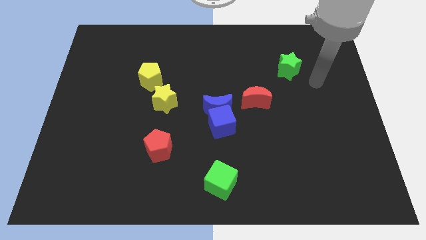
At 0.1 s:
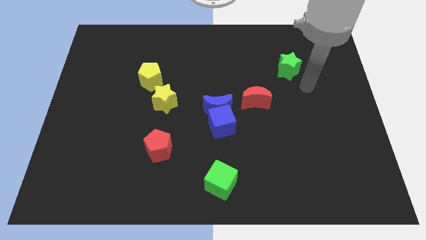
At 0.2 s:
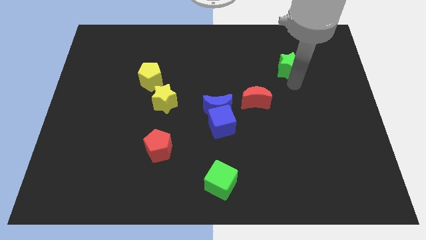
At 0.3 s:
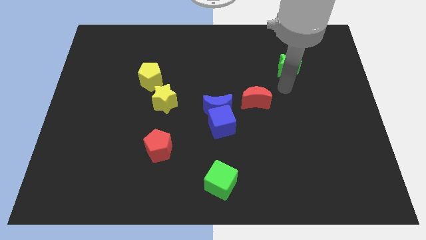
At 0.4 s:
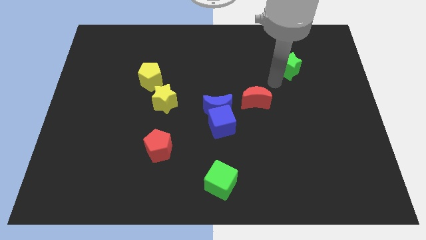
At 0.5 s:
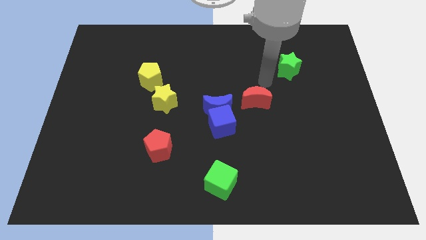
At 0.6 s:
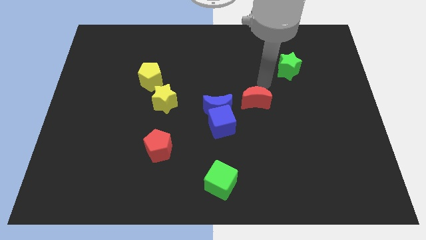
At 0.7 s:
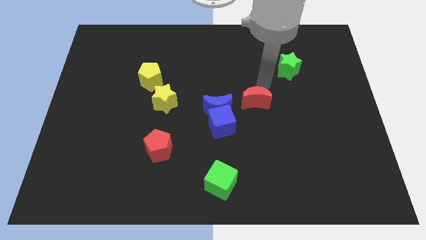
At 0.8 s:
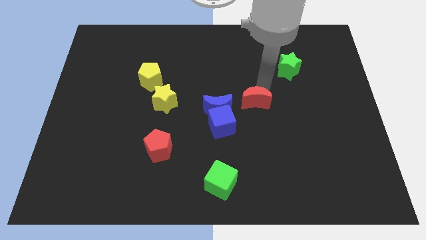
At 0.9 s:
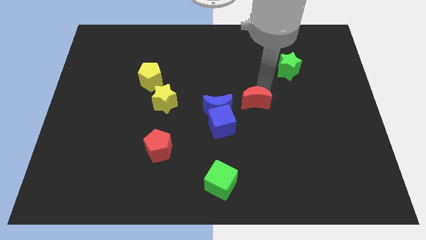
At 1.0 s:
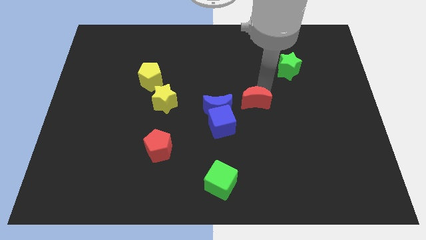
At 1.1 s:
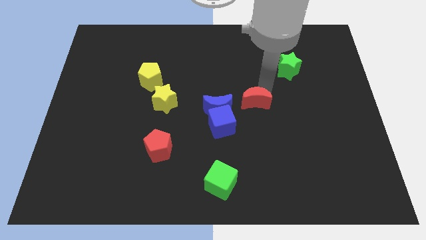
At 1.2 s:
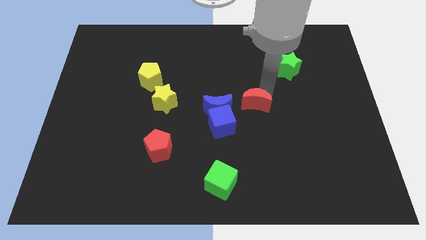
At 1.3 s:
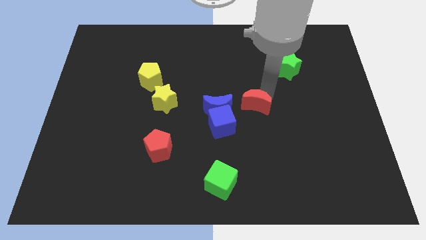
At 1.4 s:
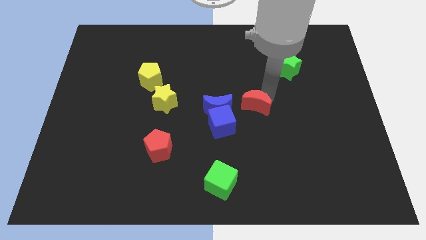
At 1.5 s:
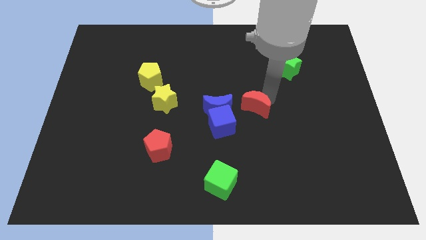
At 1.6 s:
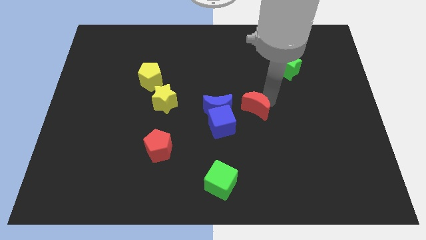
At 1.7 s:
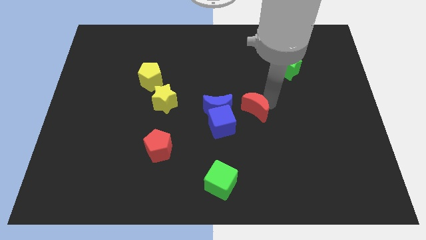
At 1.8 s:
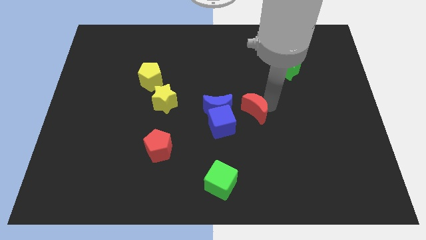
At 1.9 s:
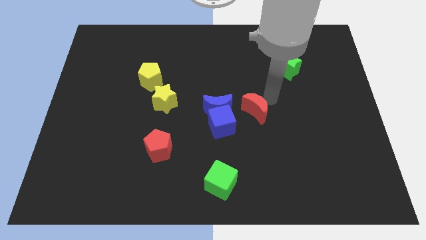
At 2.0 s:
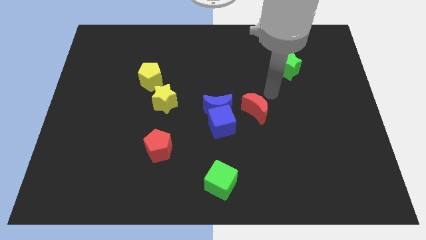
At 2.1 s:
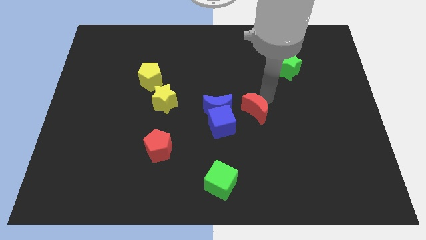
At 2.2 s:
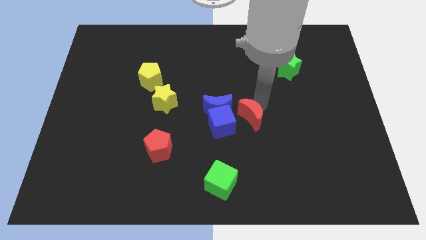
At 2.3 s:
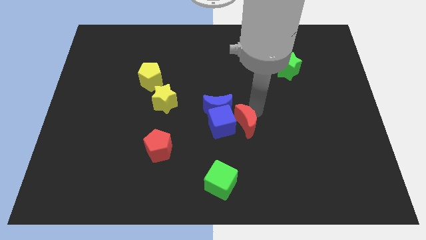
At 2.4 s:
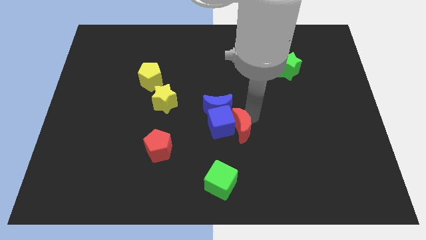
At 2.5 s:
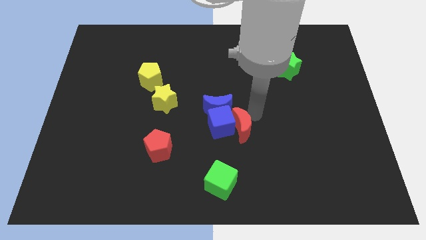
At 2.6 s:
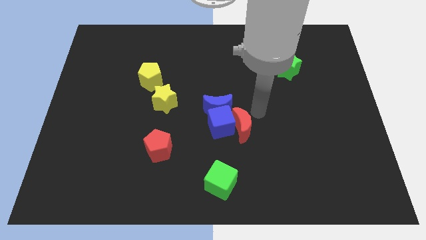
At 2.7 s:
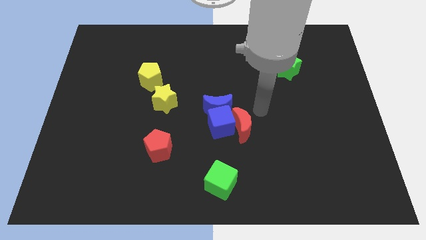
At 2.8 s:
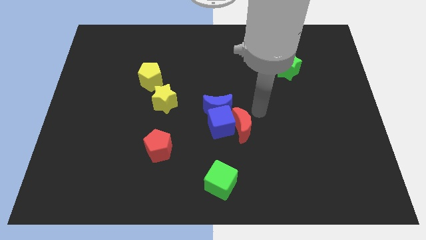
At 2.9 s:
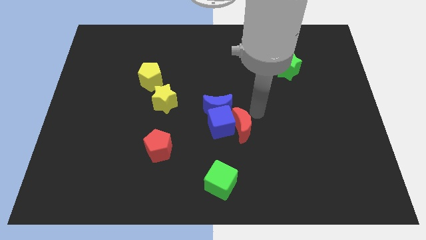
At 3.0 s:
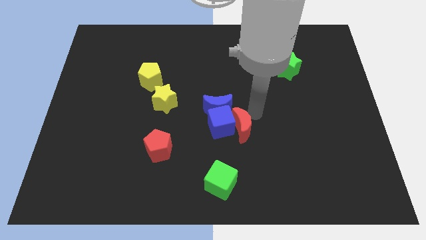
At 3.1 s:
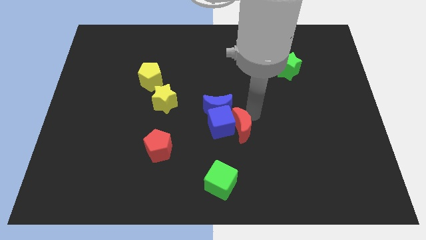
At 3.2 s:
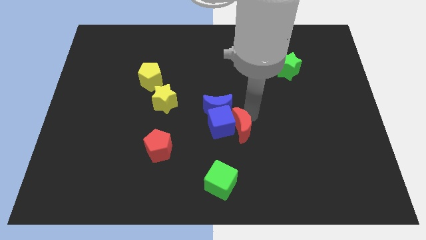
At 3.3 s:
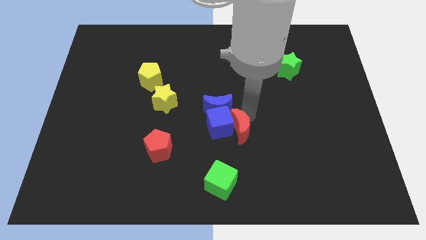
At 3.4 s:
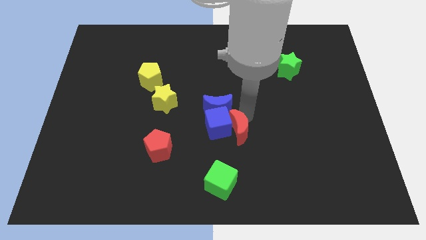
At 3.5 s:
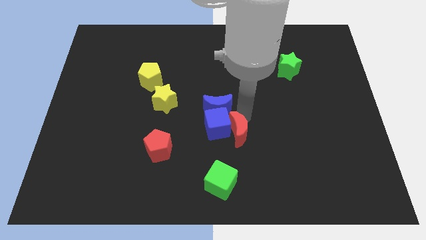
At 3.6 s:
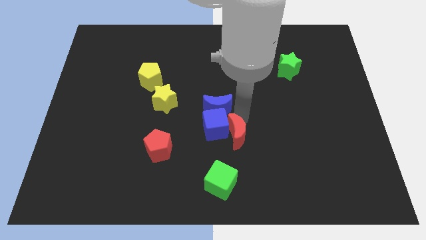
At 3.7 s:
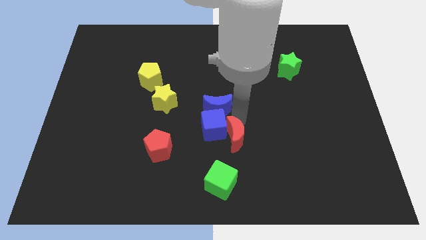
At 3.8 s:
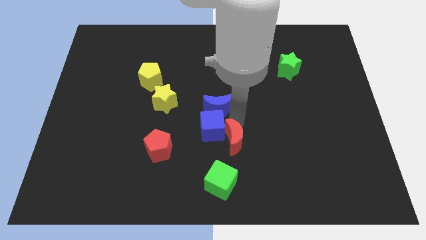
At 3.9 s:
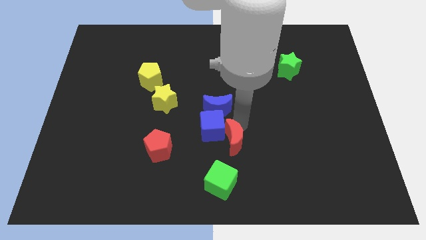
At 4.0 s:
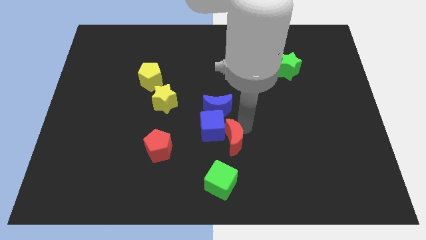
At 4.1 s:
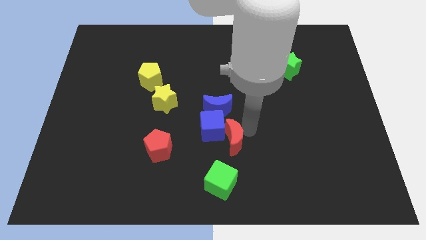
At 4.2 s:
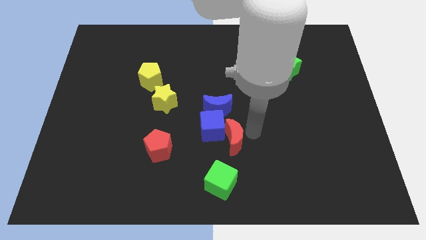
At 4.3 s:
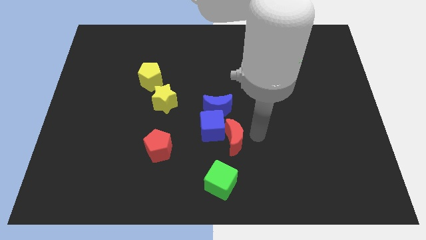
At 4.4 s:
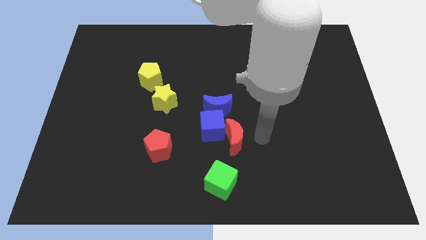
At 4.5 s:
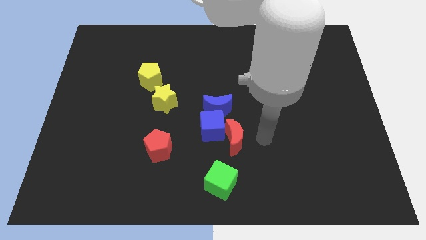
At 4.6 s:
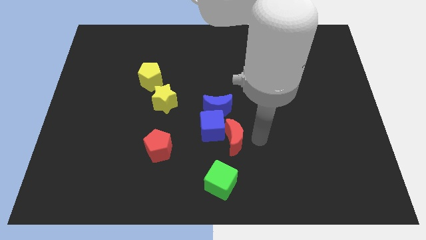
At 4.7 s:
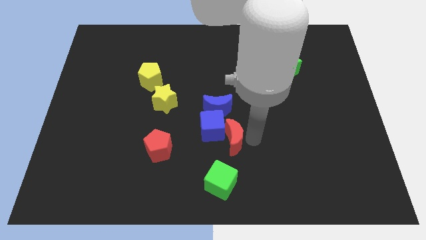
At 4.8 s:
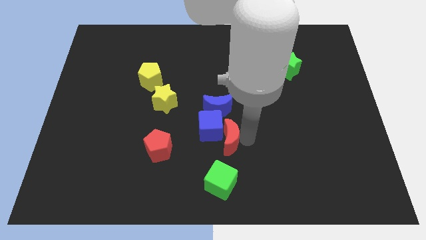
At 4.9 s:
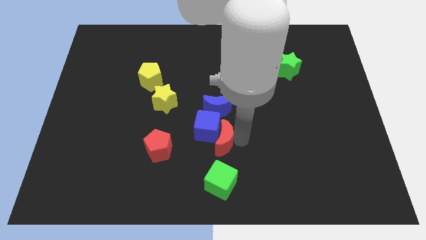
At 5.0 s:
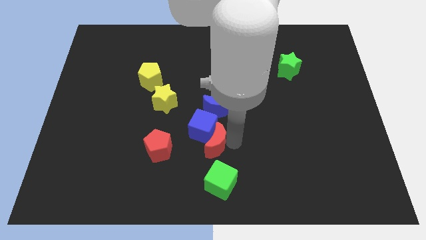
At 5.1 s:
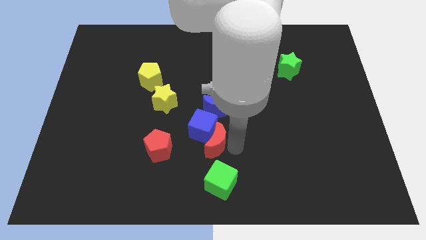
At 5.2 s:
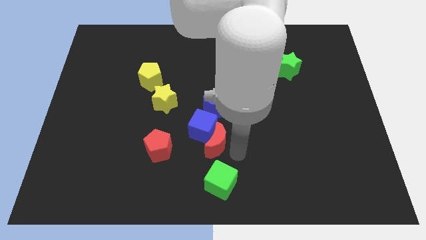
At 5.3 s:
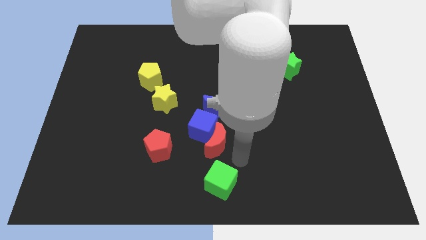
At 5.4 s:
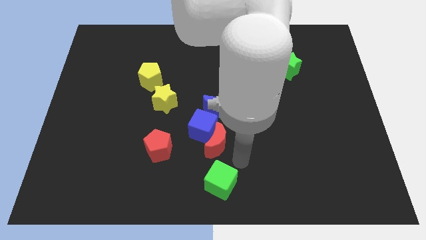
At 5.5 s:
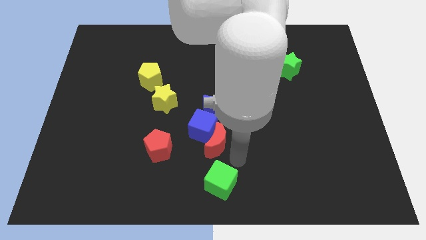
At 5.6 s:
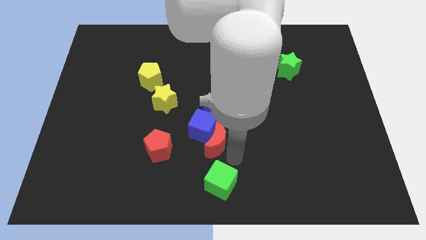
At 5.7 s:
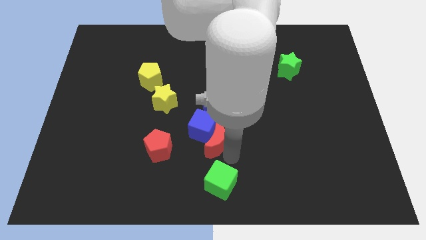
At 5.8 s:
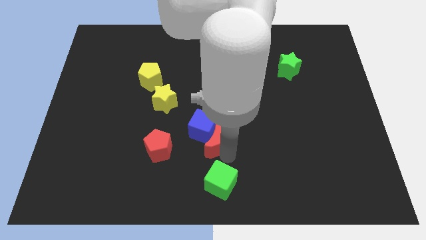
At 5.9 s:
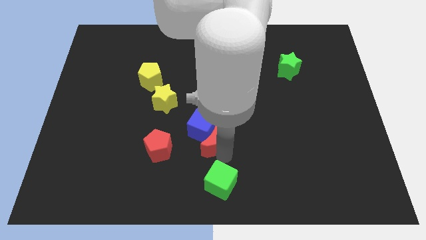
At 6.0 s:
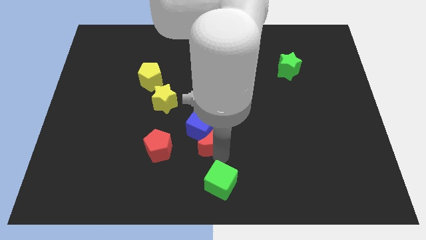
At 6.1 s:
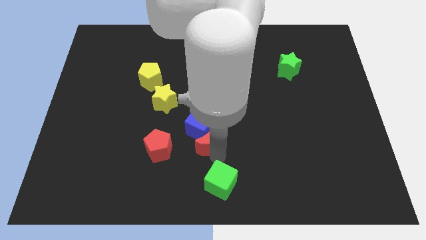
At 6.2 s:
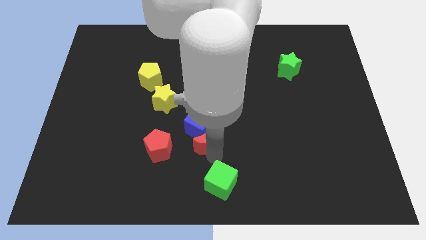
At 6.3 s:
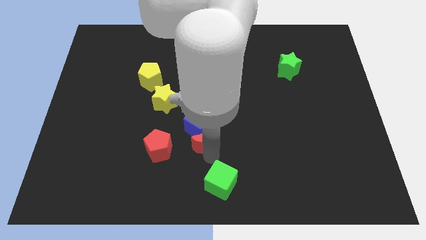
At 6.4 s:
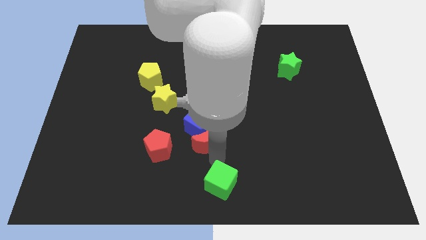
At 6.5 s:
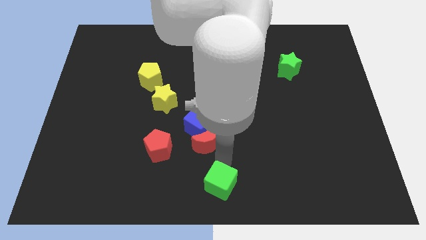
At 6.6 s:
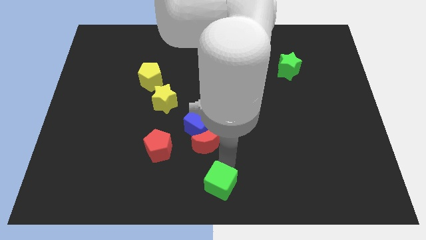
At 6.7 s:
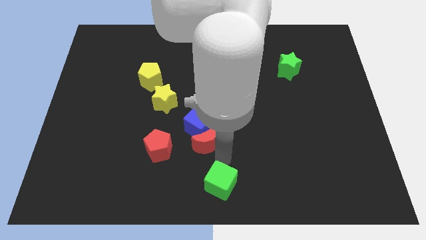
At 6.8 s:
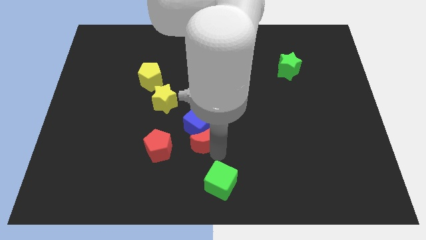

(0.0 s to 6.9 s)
move the red moon diagonally down and to the left of the blue moon
